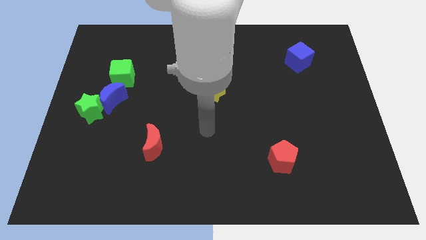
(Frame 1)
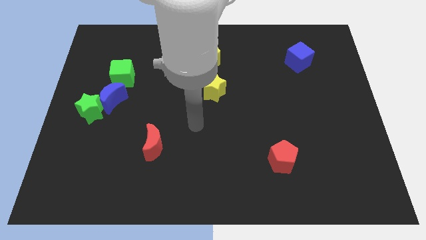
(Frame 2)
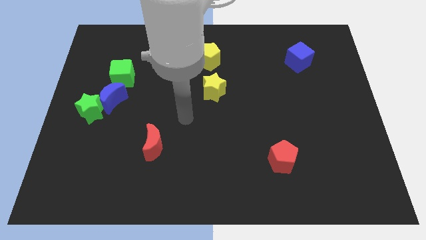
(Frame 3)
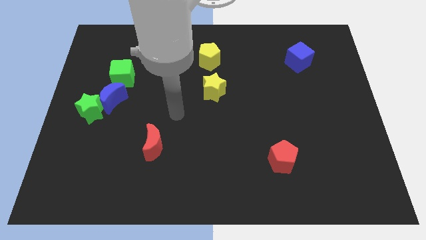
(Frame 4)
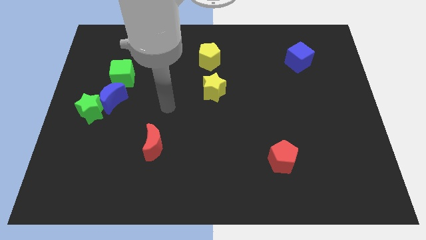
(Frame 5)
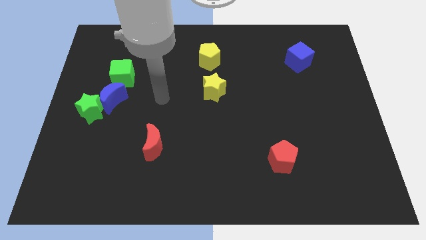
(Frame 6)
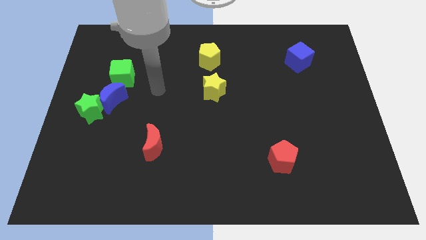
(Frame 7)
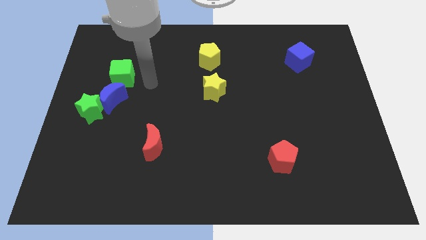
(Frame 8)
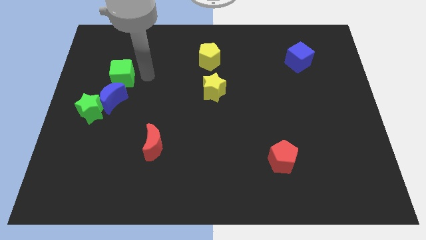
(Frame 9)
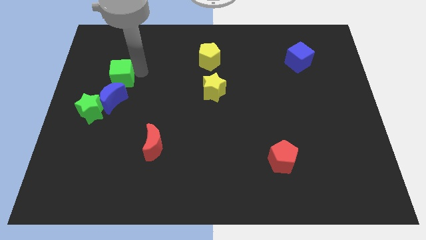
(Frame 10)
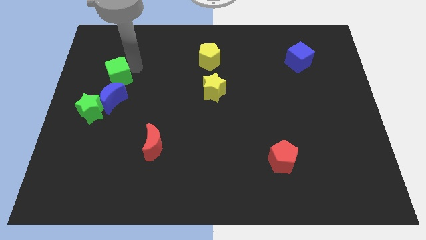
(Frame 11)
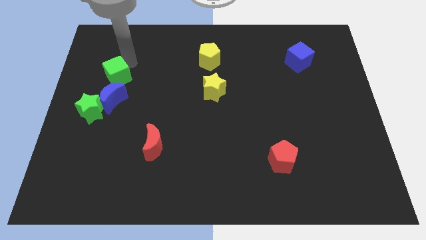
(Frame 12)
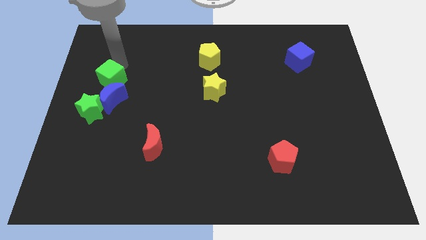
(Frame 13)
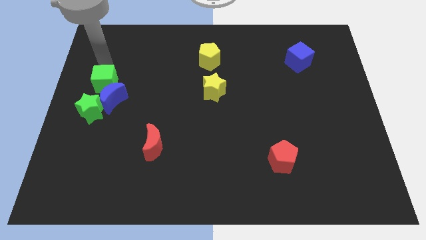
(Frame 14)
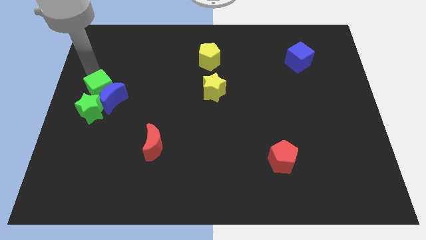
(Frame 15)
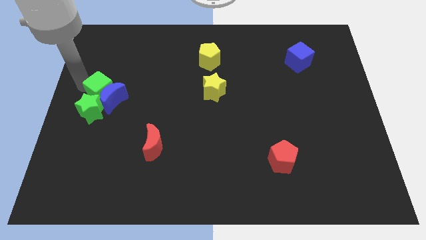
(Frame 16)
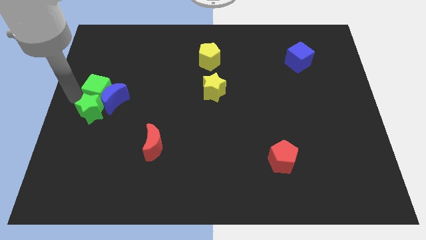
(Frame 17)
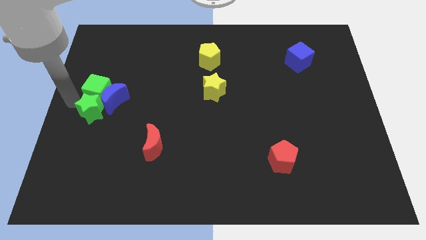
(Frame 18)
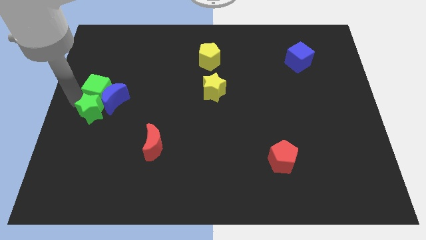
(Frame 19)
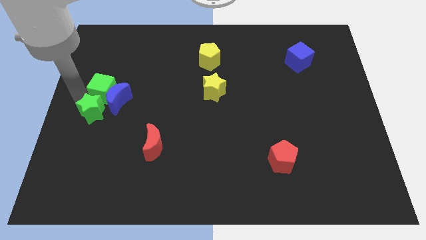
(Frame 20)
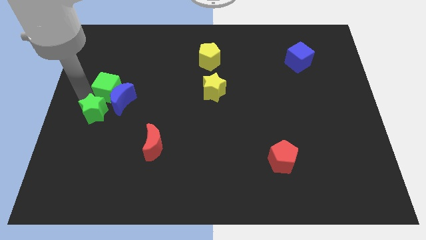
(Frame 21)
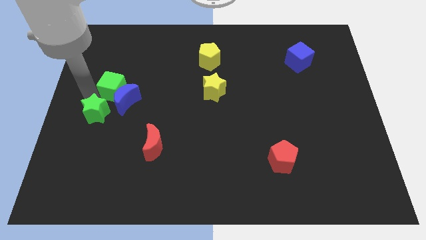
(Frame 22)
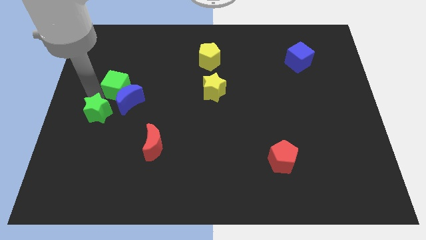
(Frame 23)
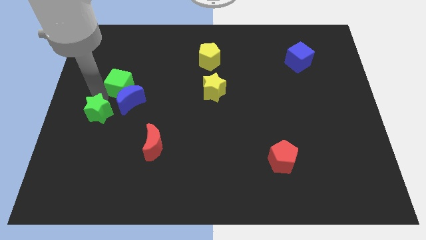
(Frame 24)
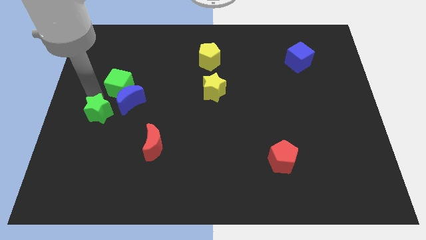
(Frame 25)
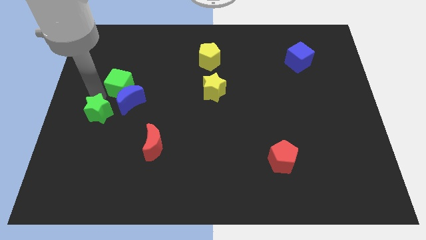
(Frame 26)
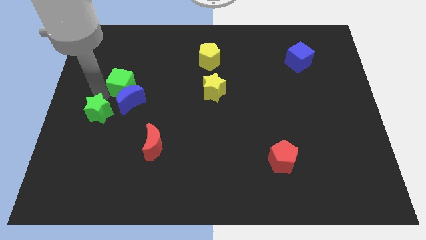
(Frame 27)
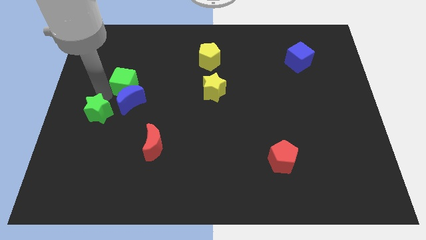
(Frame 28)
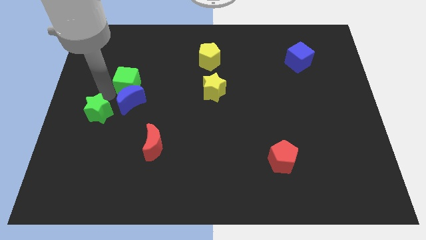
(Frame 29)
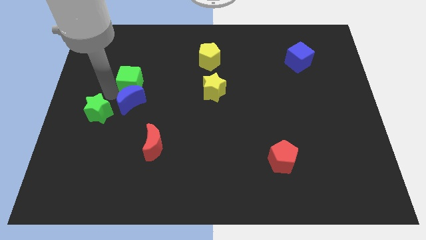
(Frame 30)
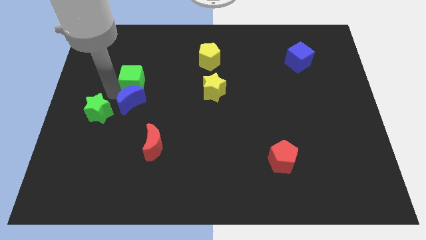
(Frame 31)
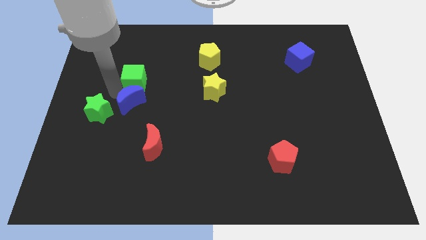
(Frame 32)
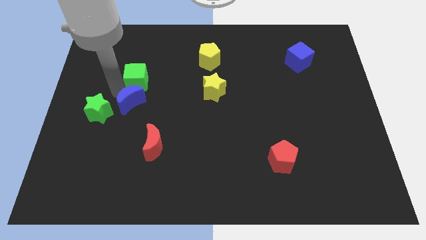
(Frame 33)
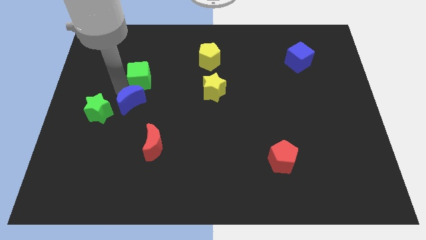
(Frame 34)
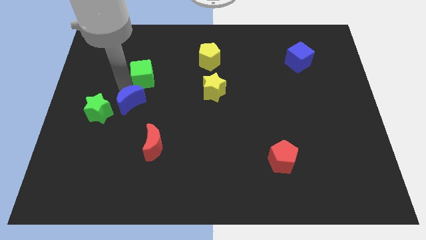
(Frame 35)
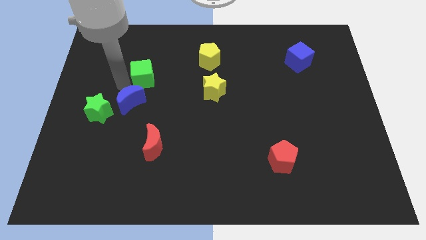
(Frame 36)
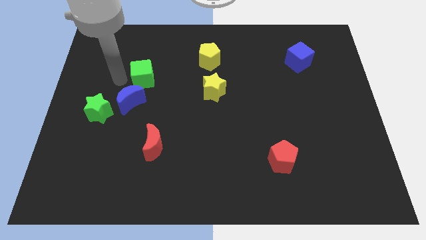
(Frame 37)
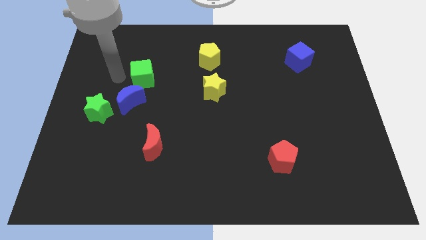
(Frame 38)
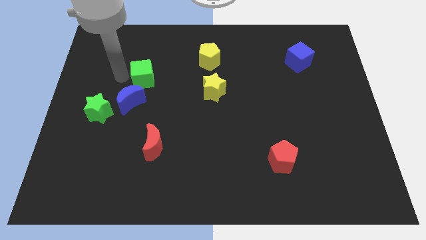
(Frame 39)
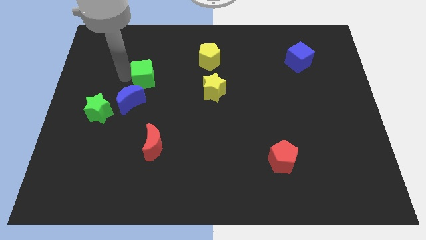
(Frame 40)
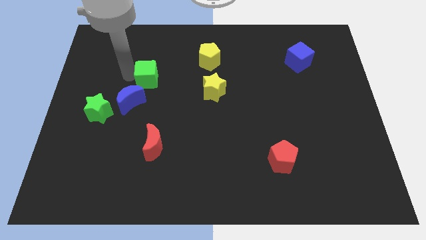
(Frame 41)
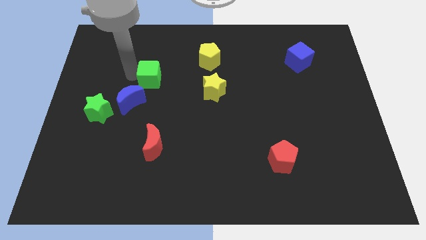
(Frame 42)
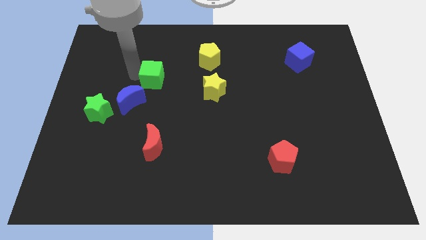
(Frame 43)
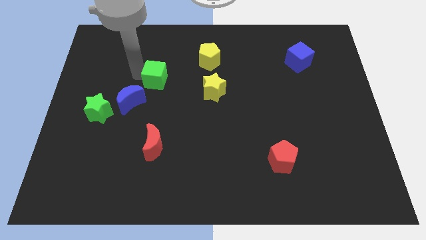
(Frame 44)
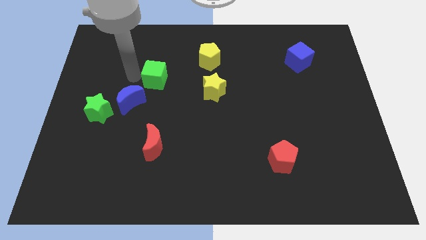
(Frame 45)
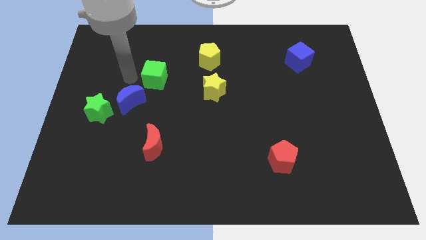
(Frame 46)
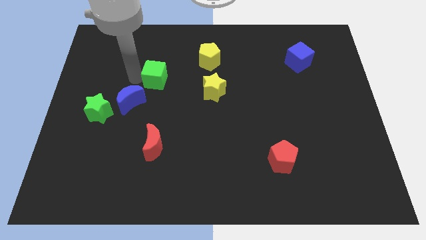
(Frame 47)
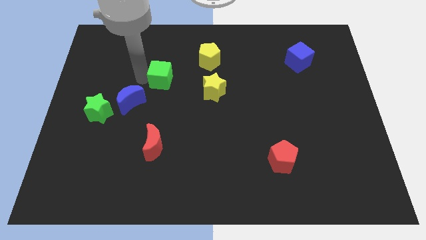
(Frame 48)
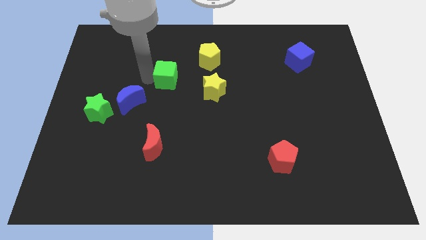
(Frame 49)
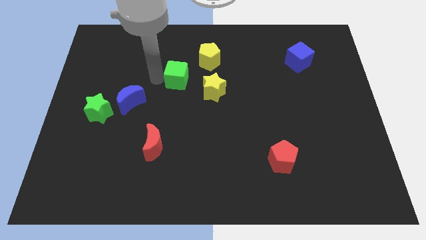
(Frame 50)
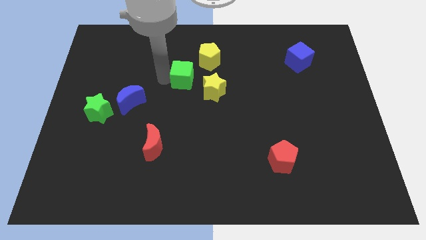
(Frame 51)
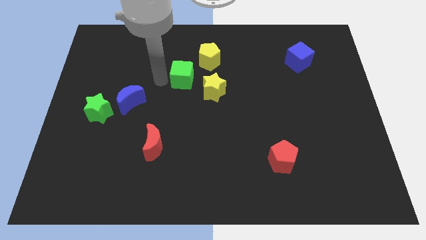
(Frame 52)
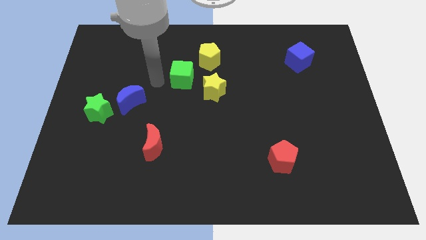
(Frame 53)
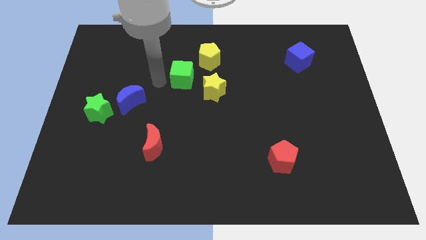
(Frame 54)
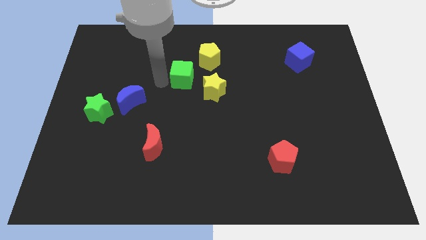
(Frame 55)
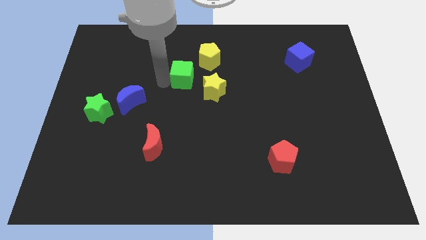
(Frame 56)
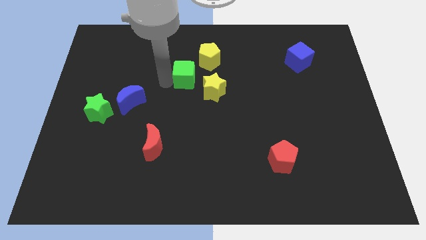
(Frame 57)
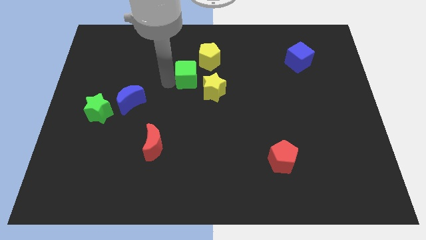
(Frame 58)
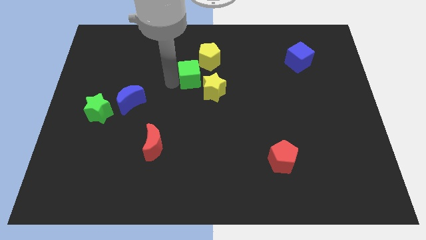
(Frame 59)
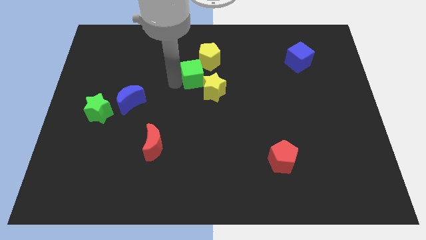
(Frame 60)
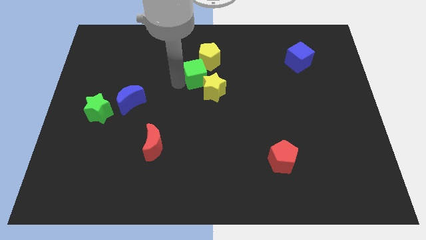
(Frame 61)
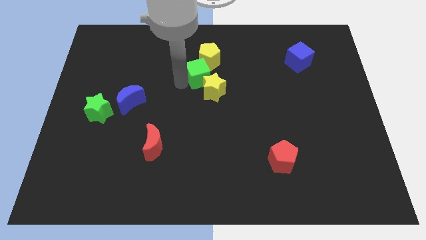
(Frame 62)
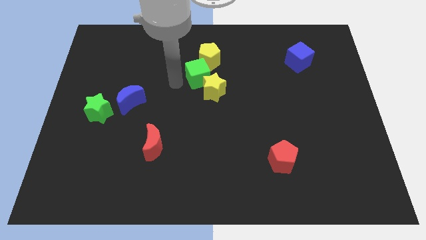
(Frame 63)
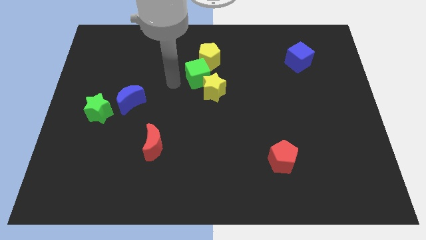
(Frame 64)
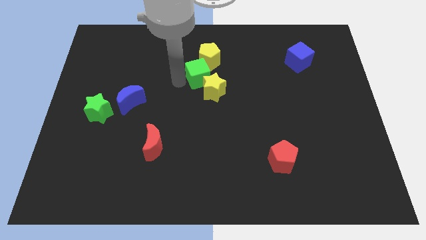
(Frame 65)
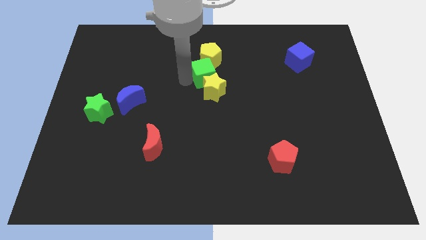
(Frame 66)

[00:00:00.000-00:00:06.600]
move the green cube right

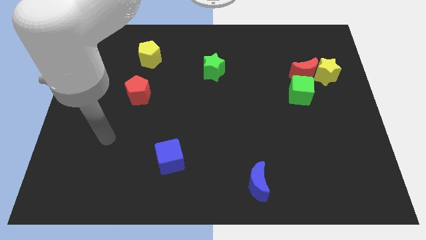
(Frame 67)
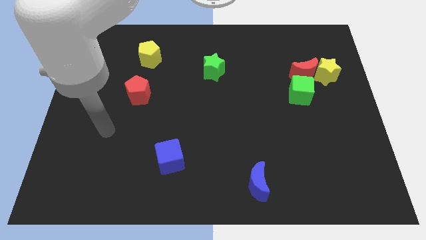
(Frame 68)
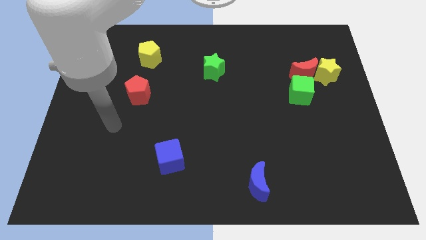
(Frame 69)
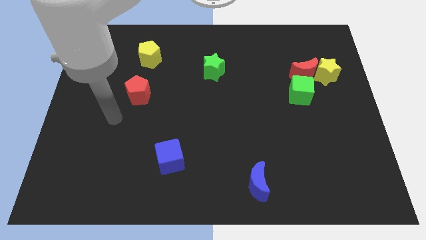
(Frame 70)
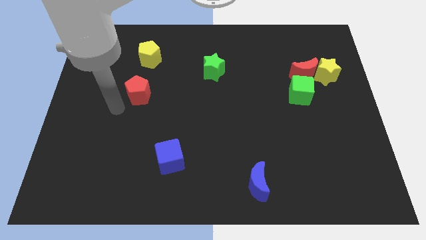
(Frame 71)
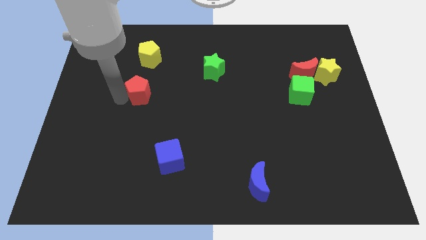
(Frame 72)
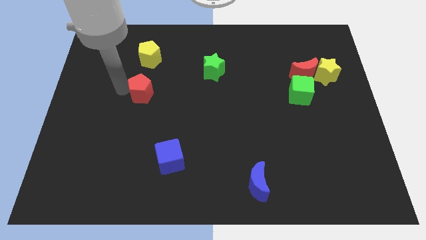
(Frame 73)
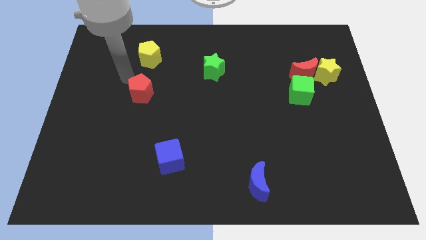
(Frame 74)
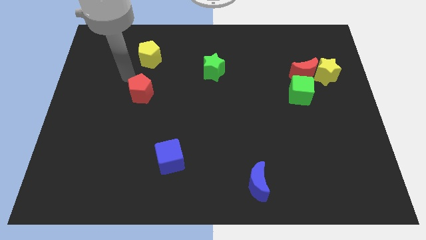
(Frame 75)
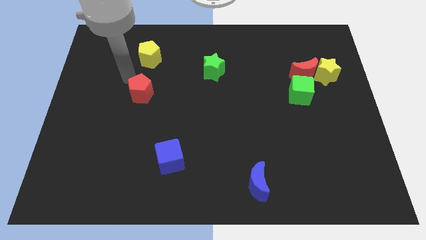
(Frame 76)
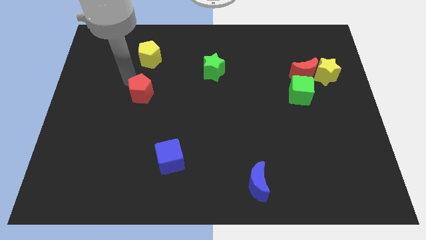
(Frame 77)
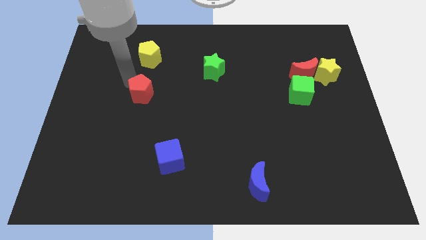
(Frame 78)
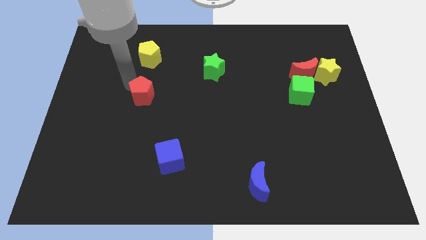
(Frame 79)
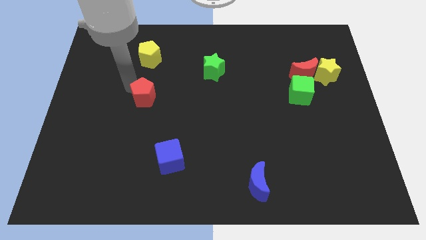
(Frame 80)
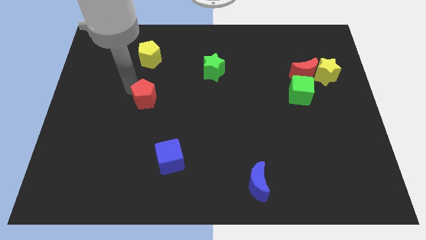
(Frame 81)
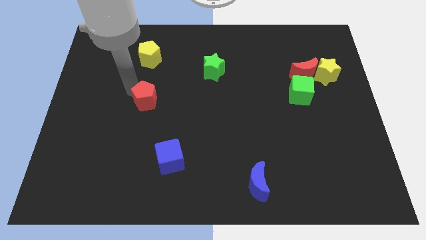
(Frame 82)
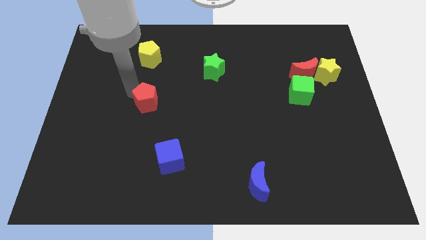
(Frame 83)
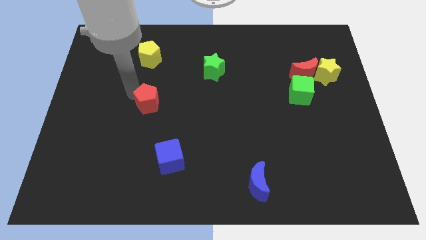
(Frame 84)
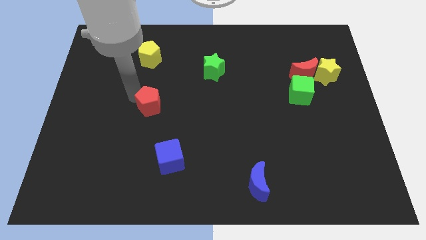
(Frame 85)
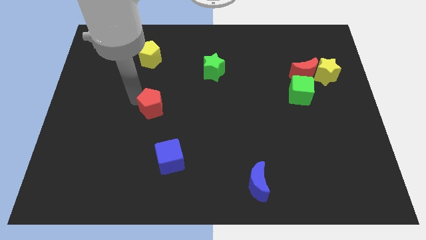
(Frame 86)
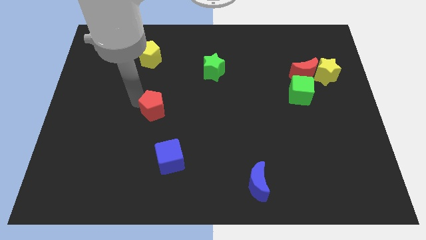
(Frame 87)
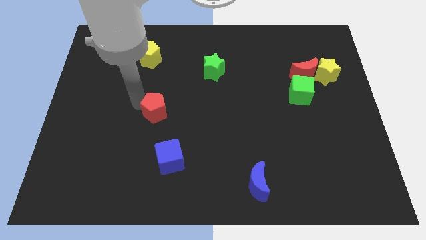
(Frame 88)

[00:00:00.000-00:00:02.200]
push the red pentagon downwards and to the right somewhat
